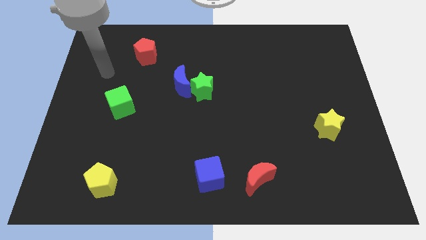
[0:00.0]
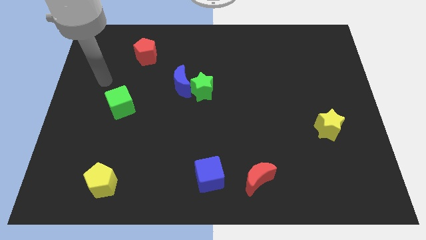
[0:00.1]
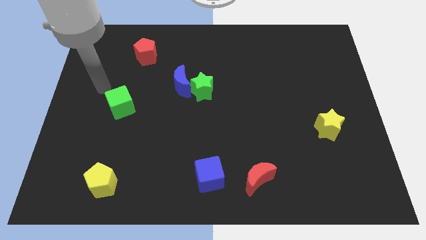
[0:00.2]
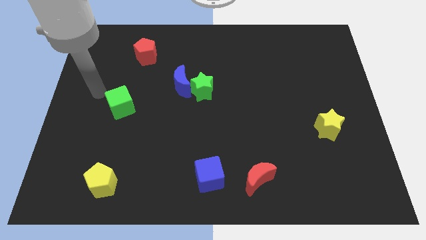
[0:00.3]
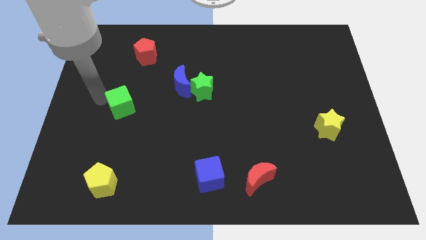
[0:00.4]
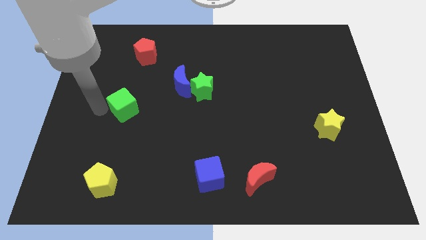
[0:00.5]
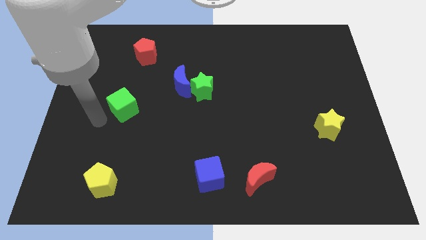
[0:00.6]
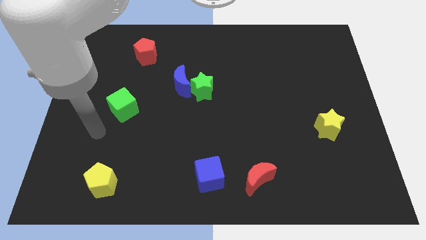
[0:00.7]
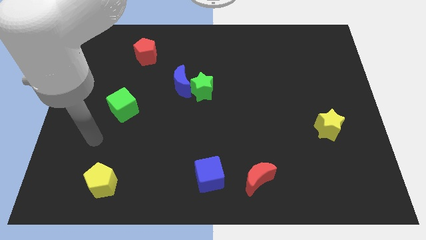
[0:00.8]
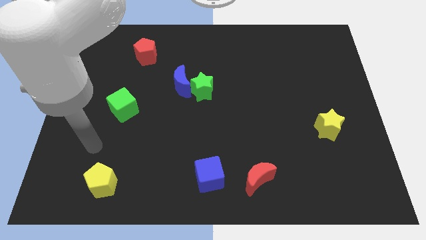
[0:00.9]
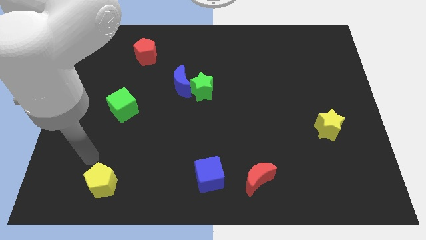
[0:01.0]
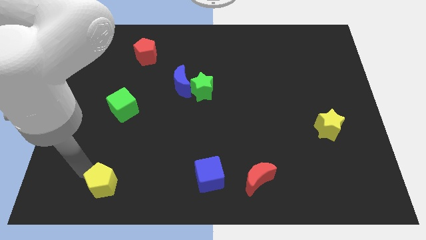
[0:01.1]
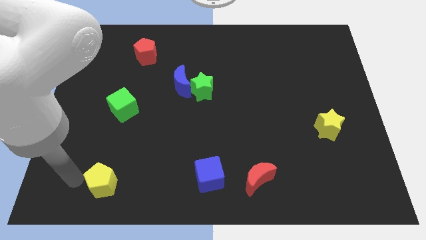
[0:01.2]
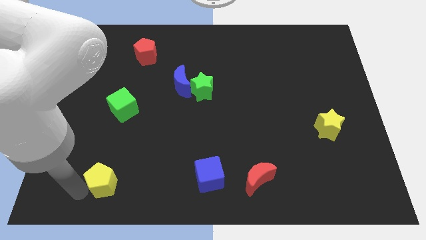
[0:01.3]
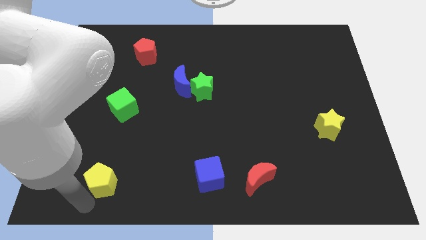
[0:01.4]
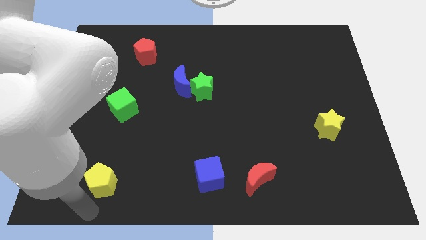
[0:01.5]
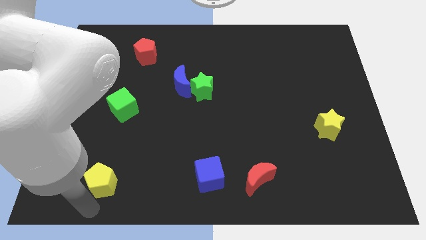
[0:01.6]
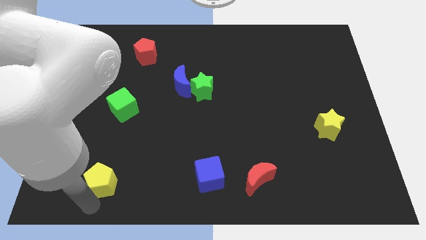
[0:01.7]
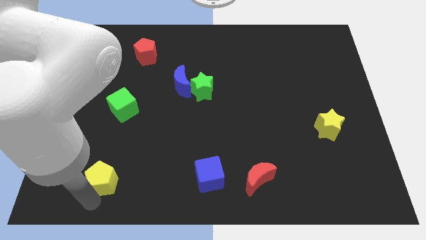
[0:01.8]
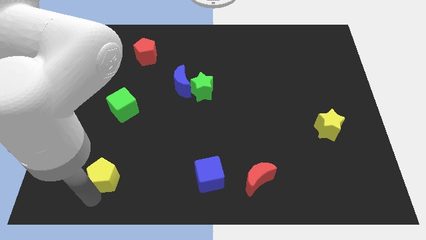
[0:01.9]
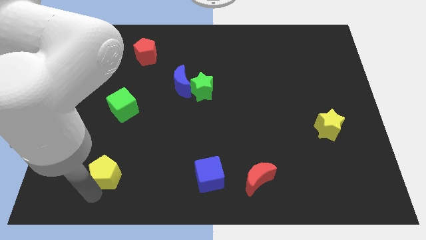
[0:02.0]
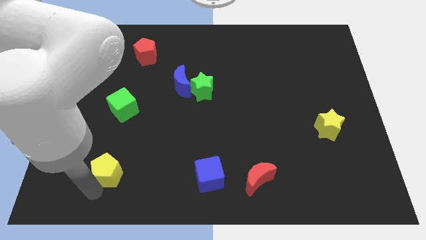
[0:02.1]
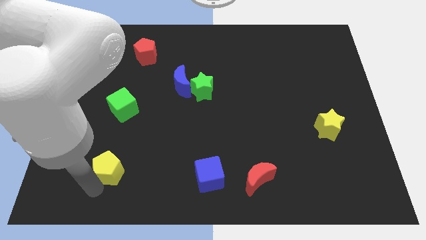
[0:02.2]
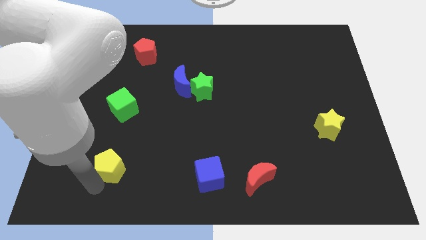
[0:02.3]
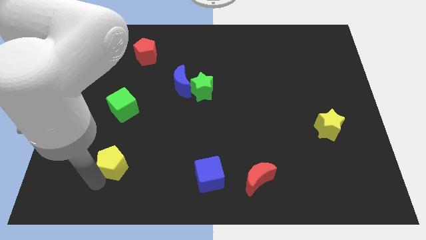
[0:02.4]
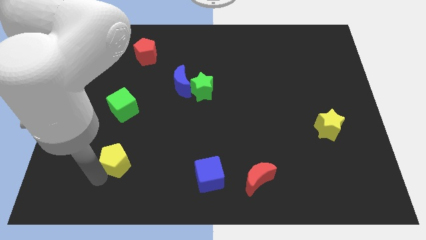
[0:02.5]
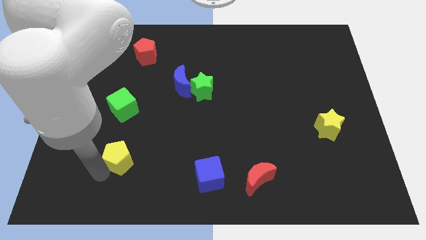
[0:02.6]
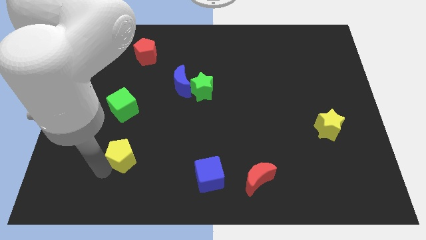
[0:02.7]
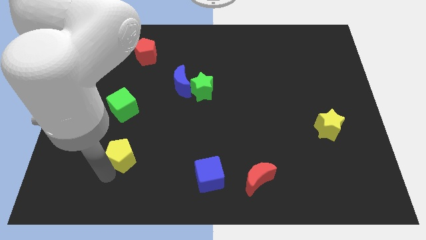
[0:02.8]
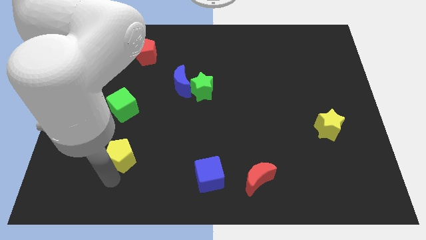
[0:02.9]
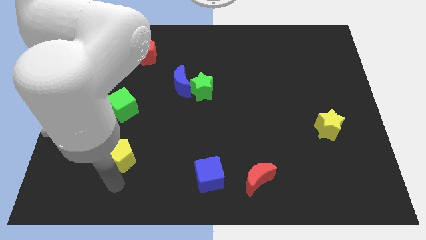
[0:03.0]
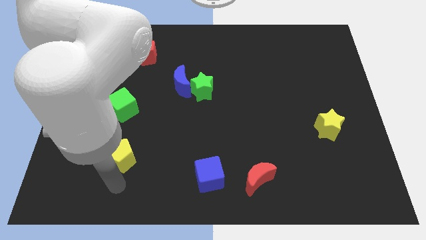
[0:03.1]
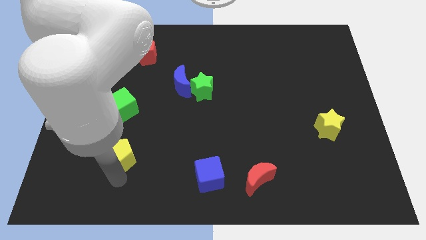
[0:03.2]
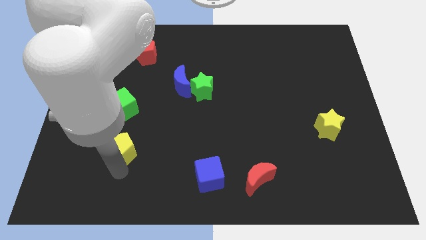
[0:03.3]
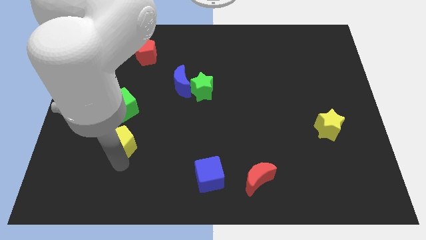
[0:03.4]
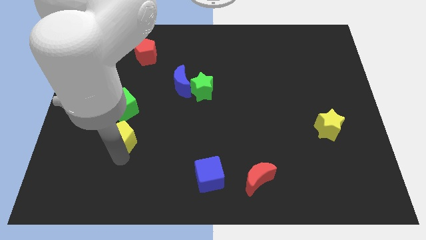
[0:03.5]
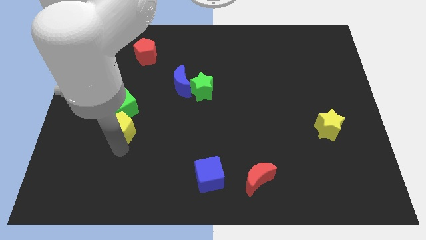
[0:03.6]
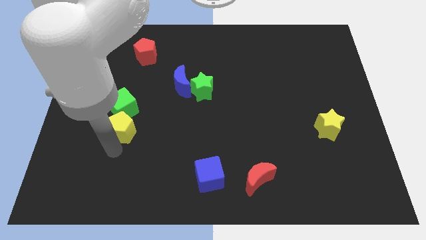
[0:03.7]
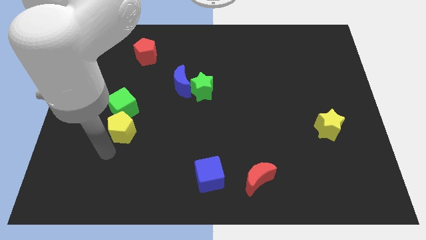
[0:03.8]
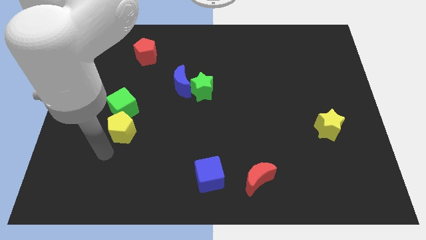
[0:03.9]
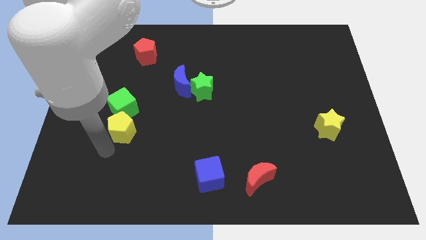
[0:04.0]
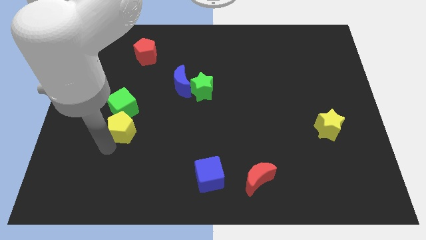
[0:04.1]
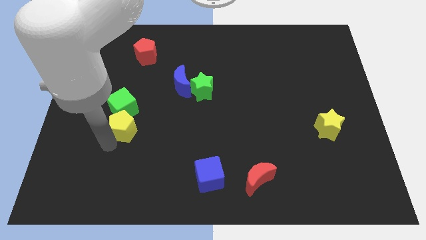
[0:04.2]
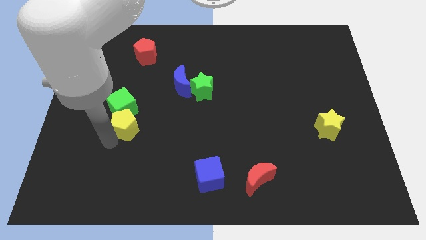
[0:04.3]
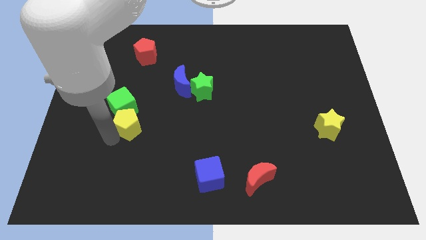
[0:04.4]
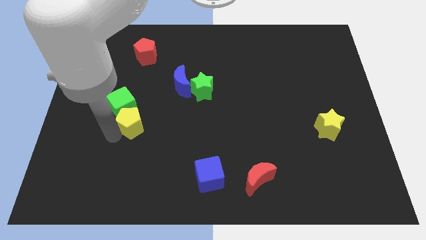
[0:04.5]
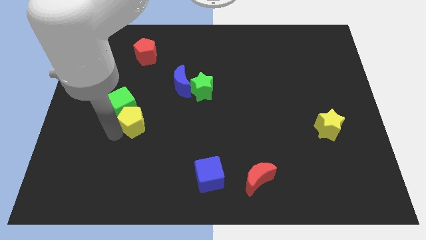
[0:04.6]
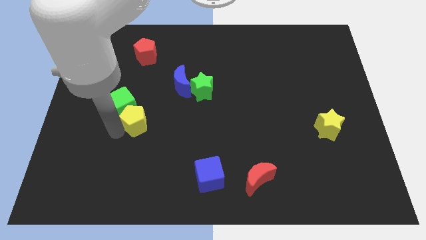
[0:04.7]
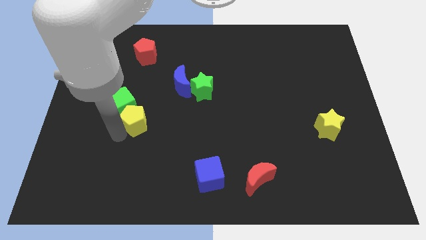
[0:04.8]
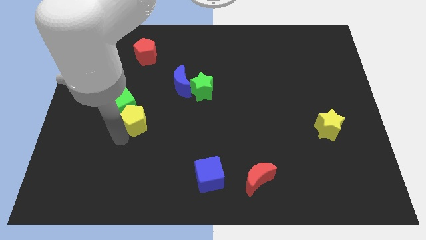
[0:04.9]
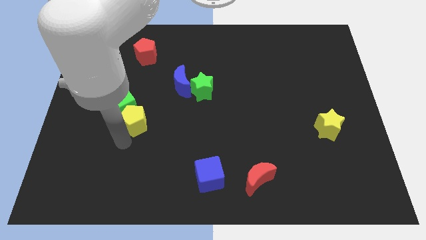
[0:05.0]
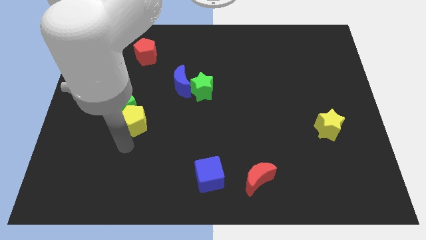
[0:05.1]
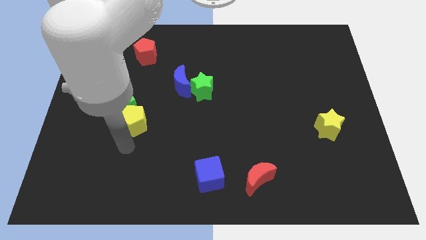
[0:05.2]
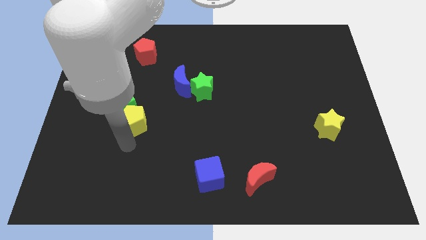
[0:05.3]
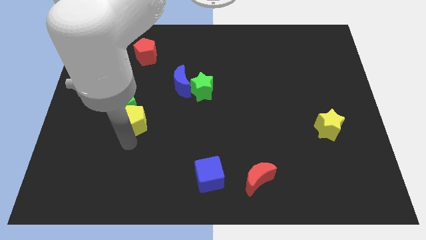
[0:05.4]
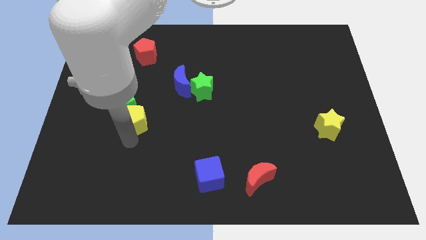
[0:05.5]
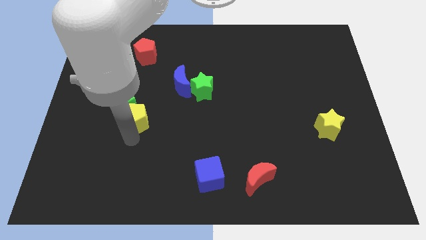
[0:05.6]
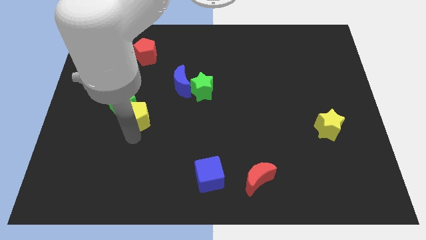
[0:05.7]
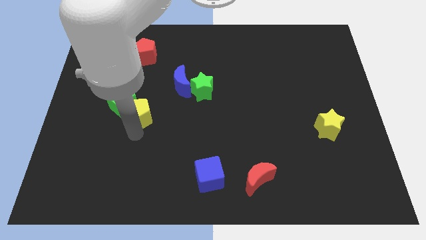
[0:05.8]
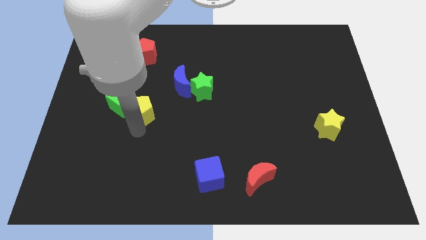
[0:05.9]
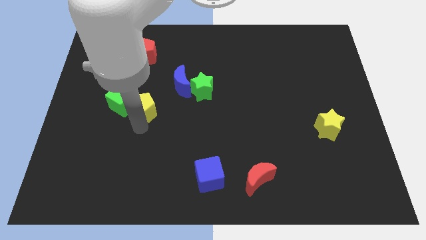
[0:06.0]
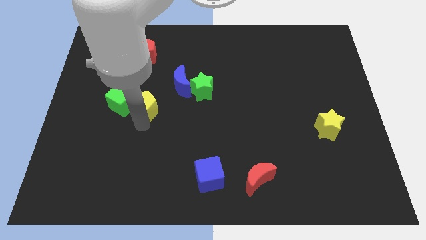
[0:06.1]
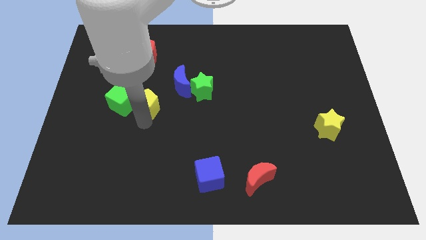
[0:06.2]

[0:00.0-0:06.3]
move the yellow pentagon to the top right of the green cube

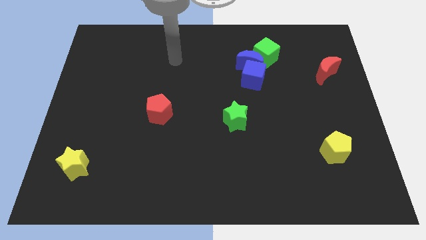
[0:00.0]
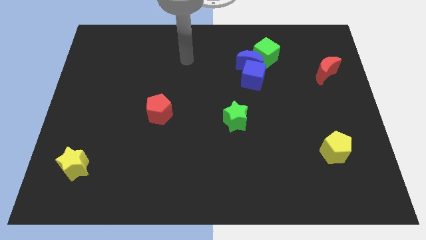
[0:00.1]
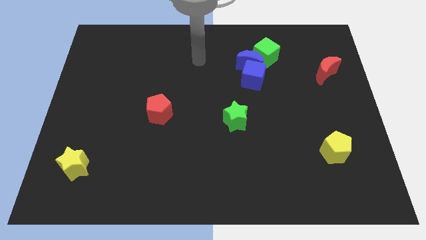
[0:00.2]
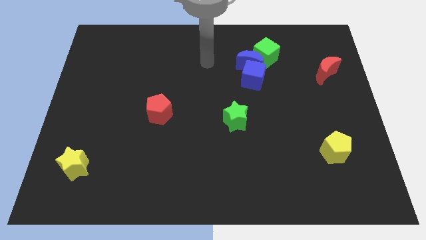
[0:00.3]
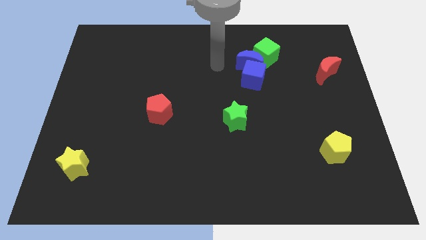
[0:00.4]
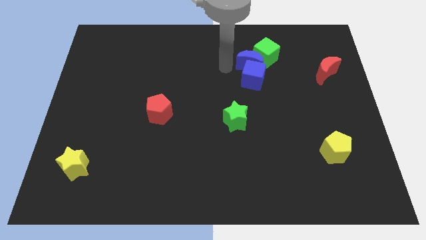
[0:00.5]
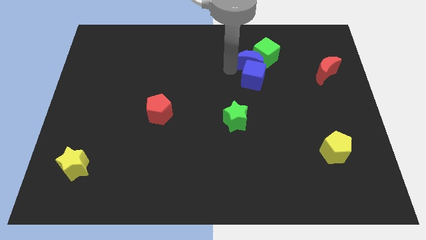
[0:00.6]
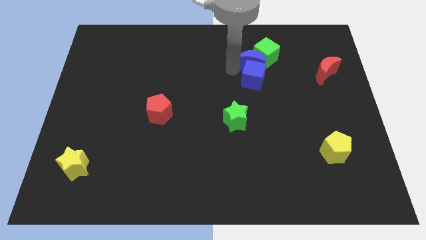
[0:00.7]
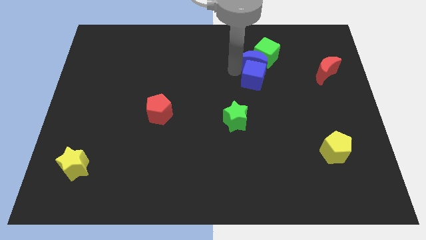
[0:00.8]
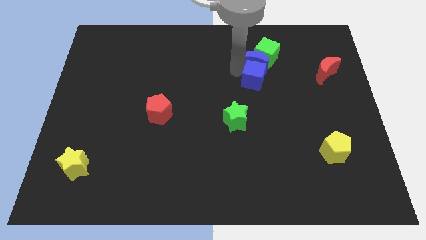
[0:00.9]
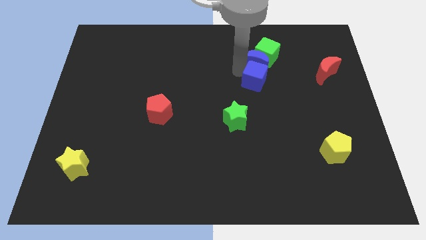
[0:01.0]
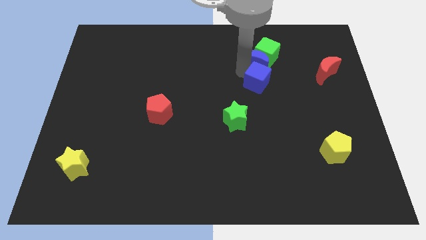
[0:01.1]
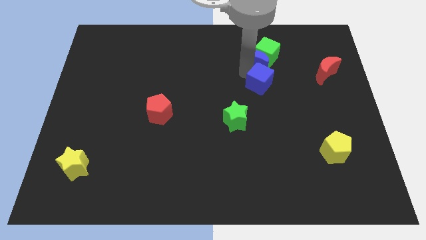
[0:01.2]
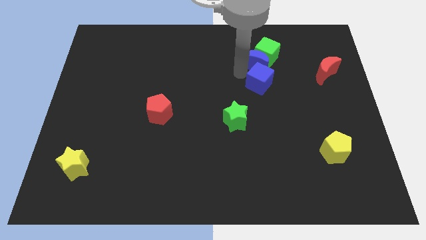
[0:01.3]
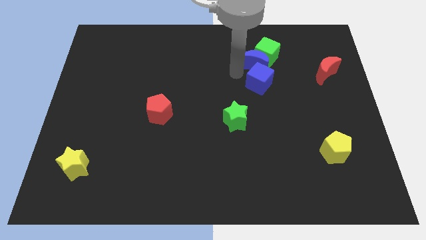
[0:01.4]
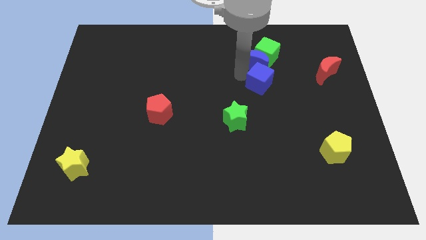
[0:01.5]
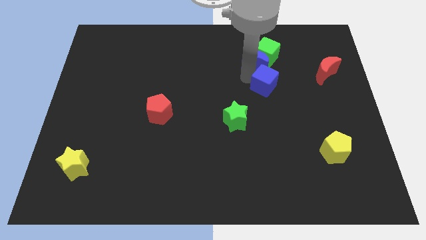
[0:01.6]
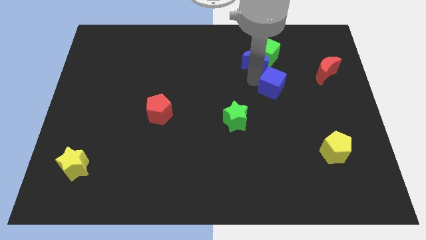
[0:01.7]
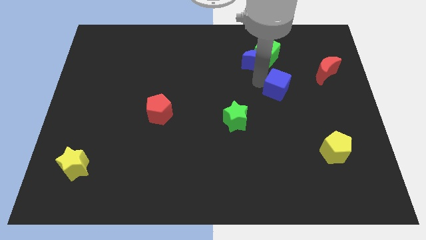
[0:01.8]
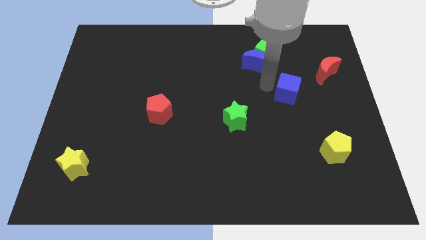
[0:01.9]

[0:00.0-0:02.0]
put the blue cube diagonally down and to the left of the red moon
